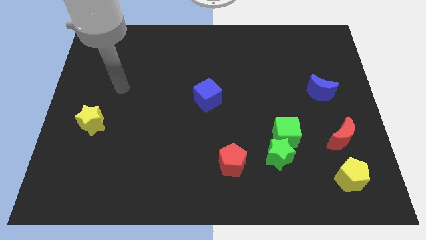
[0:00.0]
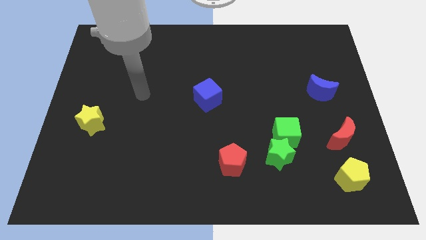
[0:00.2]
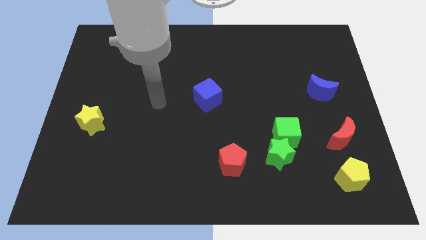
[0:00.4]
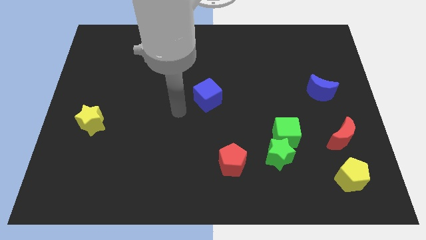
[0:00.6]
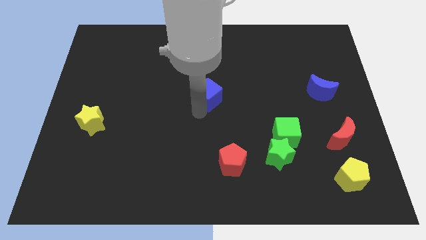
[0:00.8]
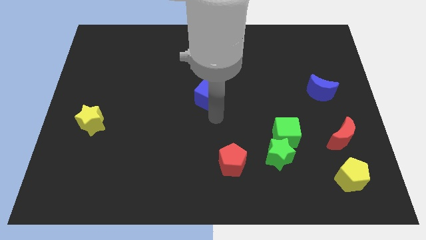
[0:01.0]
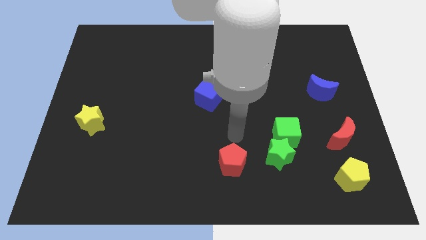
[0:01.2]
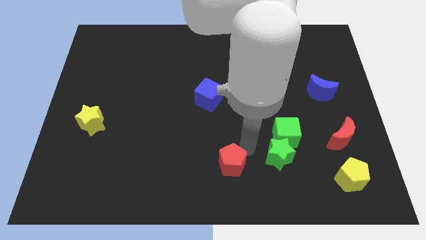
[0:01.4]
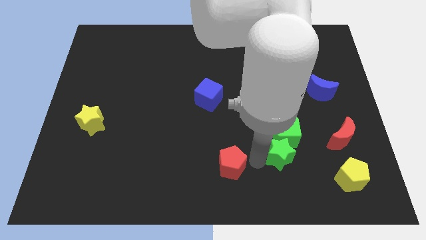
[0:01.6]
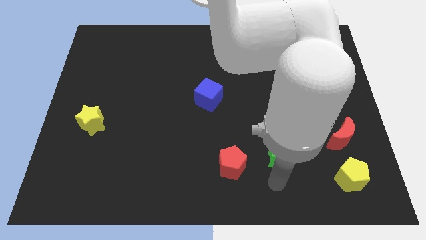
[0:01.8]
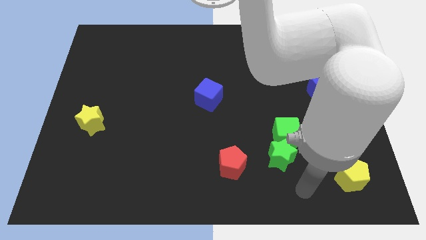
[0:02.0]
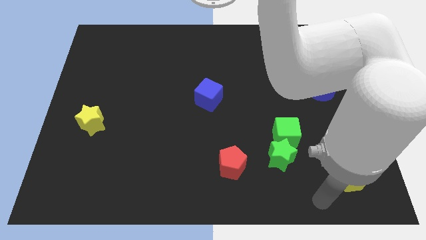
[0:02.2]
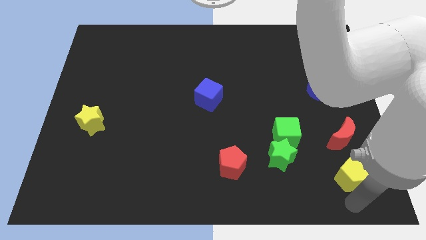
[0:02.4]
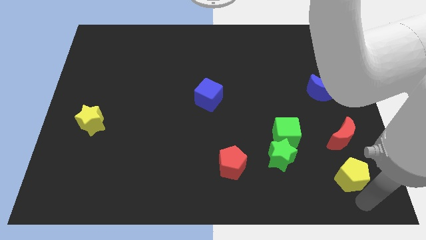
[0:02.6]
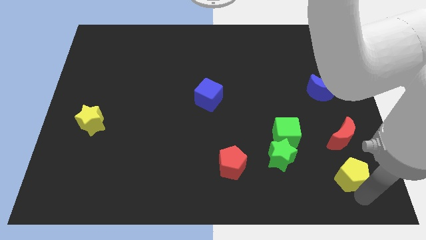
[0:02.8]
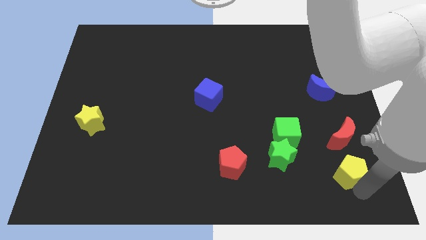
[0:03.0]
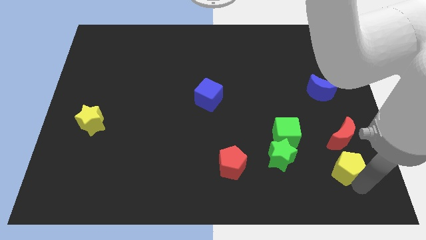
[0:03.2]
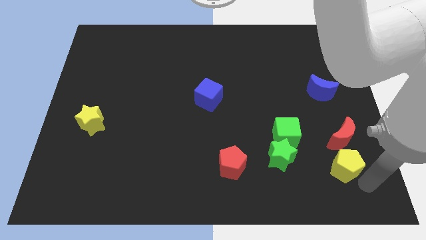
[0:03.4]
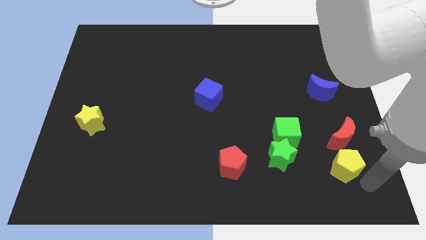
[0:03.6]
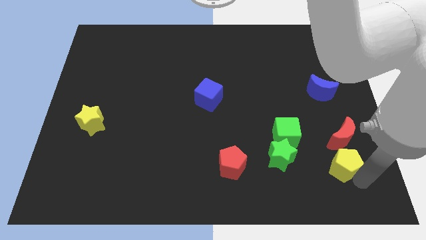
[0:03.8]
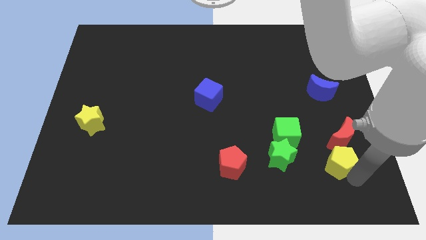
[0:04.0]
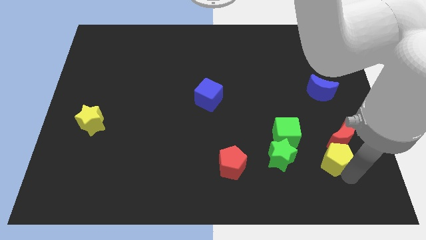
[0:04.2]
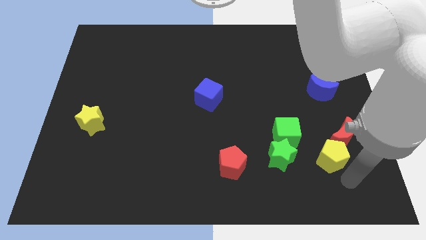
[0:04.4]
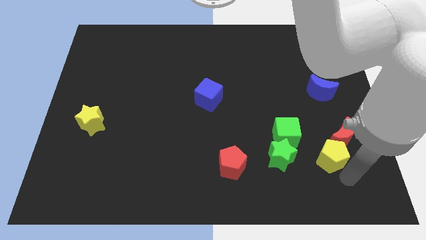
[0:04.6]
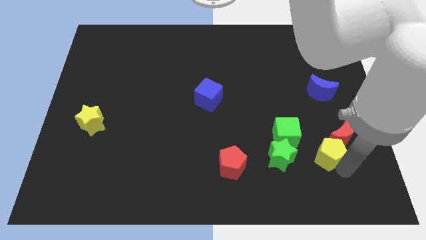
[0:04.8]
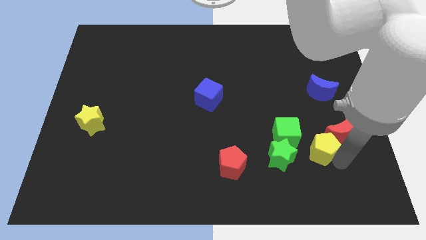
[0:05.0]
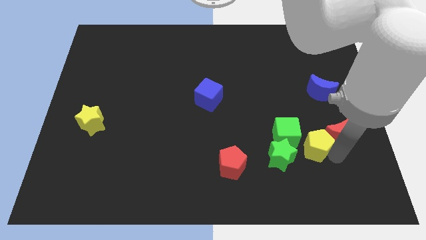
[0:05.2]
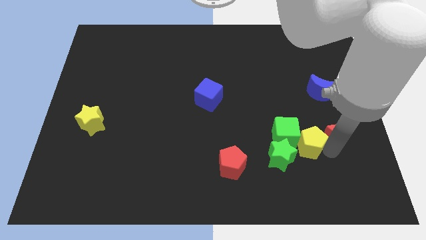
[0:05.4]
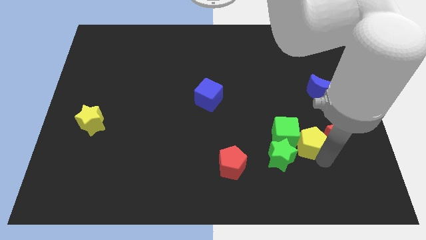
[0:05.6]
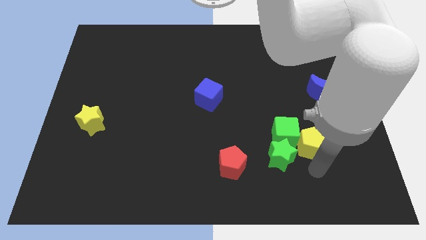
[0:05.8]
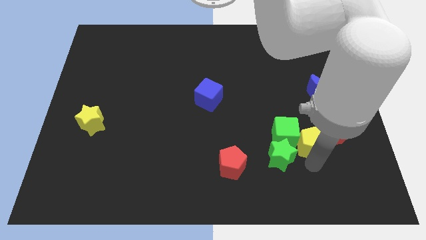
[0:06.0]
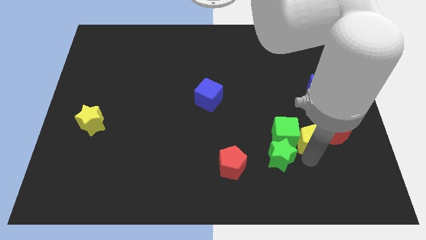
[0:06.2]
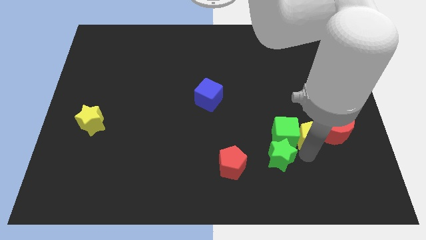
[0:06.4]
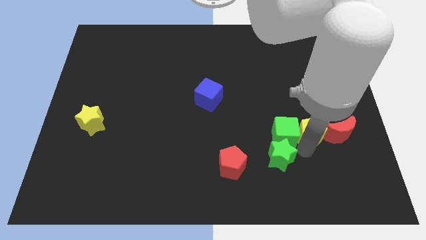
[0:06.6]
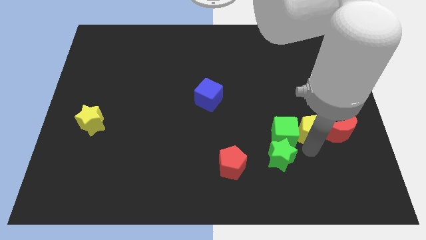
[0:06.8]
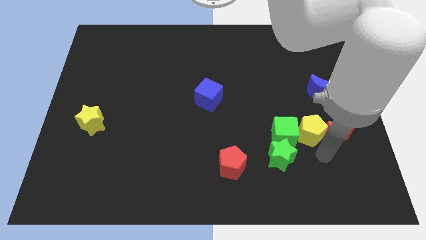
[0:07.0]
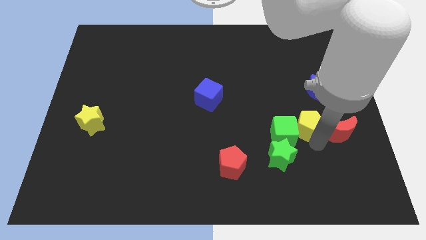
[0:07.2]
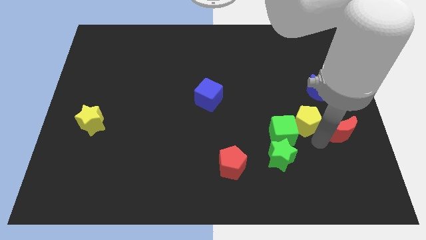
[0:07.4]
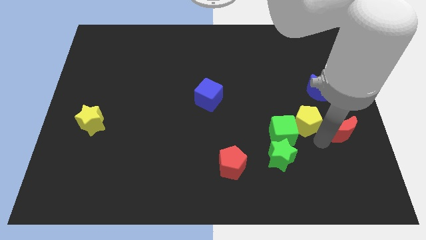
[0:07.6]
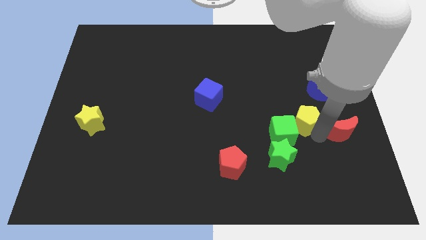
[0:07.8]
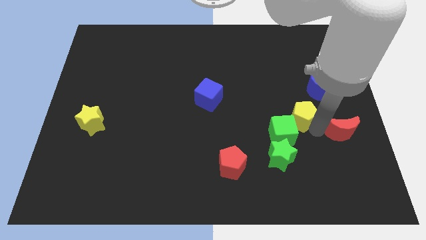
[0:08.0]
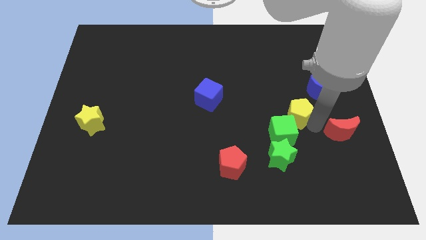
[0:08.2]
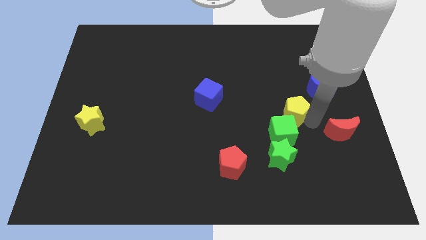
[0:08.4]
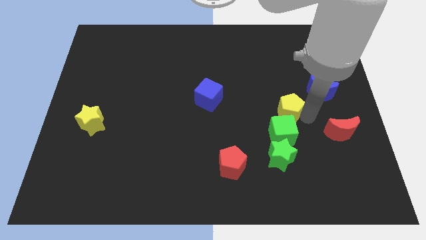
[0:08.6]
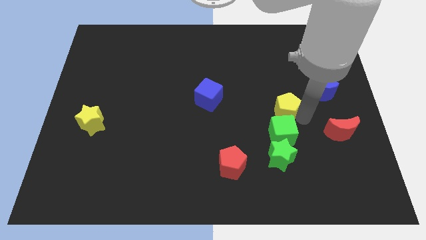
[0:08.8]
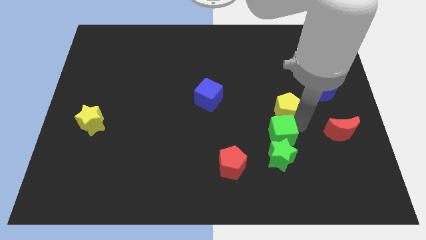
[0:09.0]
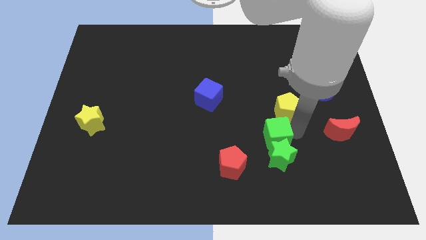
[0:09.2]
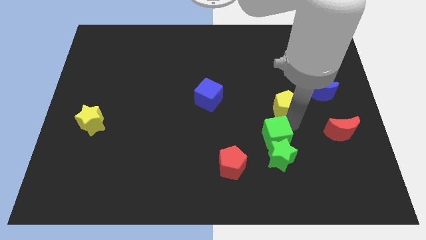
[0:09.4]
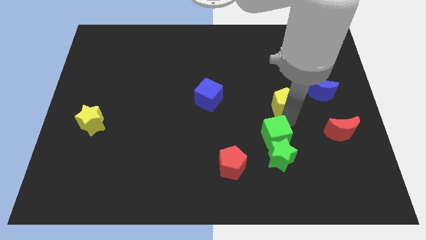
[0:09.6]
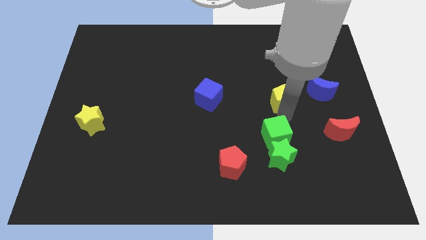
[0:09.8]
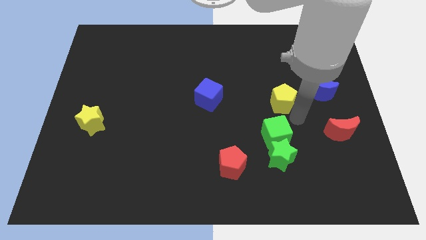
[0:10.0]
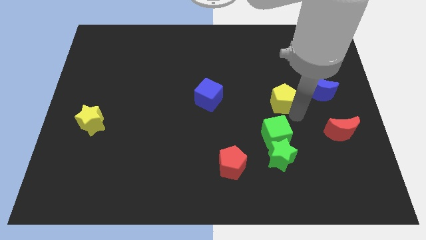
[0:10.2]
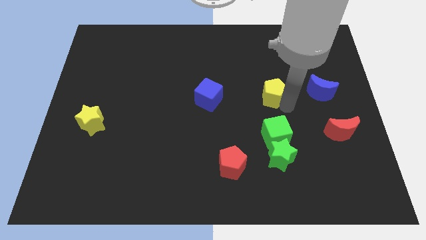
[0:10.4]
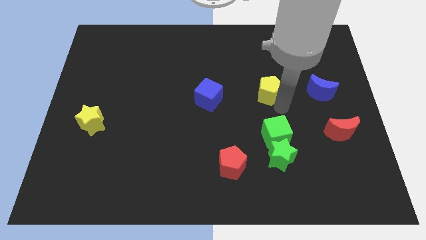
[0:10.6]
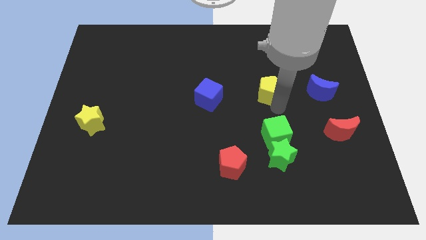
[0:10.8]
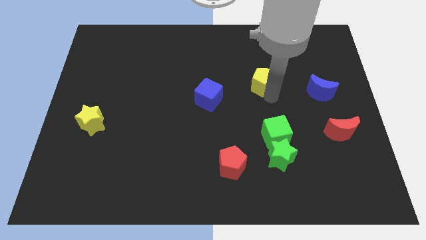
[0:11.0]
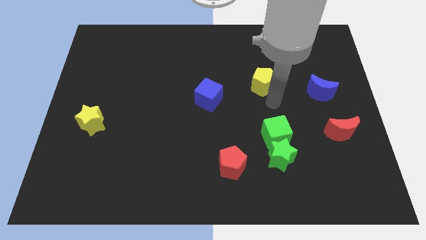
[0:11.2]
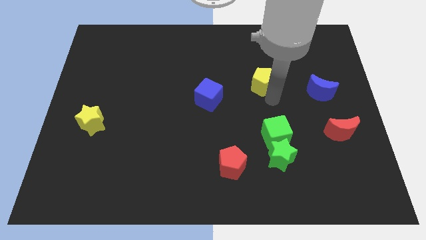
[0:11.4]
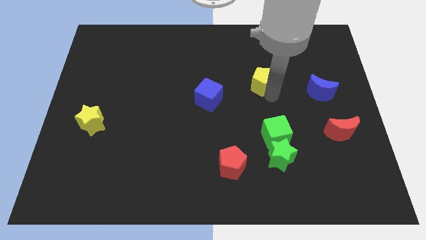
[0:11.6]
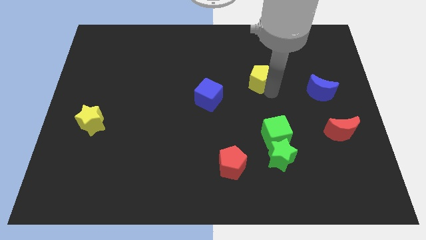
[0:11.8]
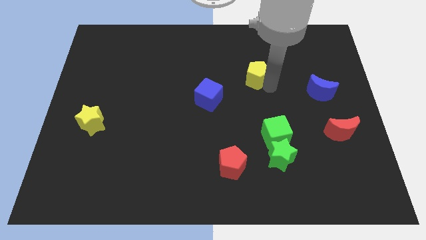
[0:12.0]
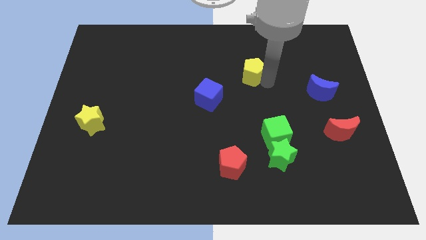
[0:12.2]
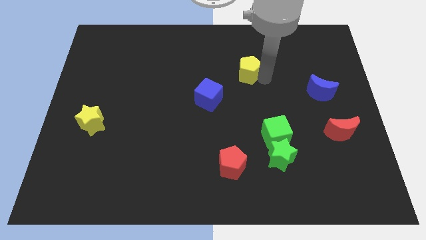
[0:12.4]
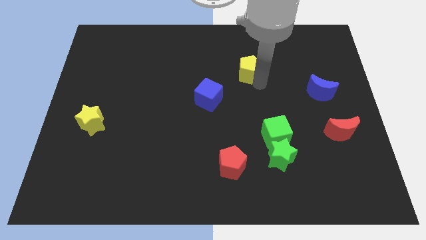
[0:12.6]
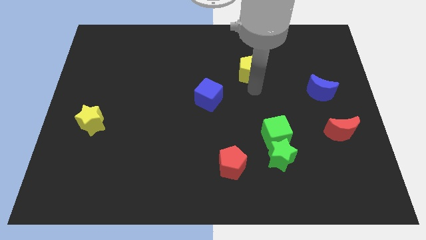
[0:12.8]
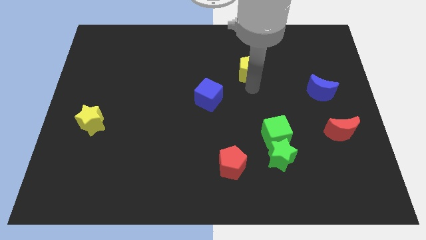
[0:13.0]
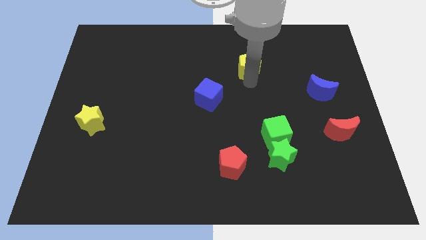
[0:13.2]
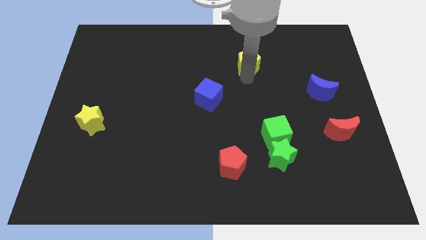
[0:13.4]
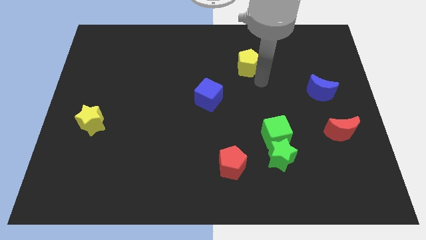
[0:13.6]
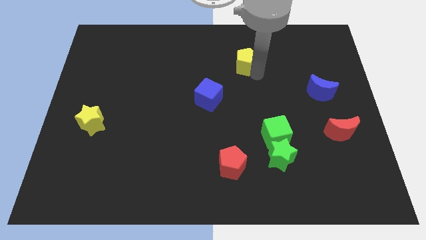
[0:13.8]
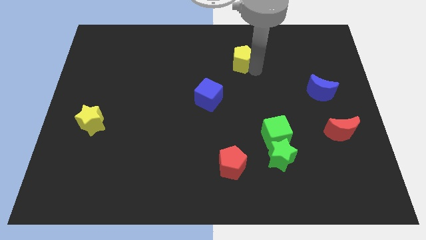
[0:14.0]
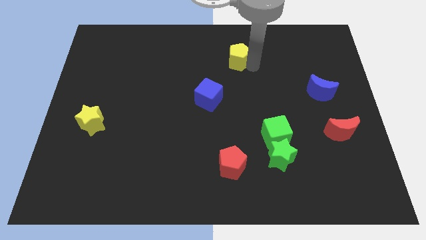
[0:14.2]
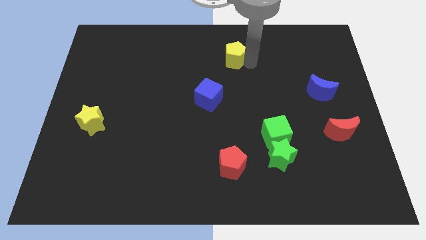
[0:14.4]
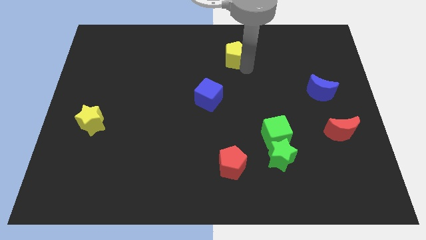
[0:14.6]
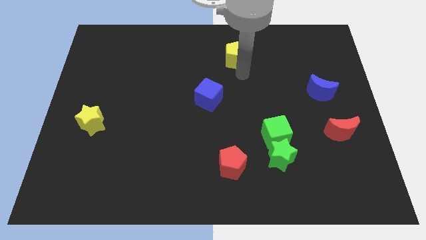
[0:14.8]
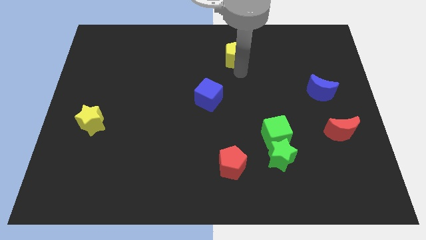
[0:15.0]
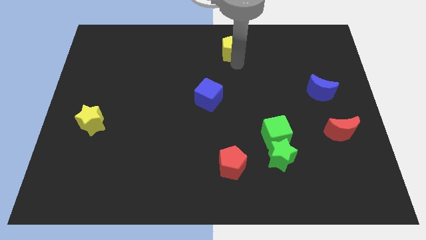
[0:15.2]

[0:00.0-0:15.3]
push the yellow pentagon to the towards your base
